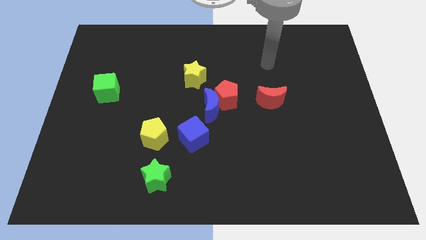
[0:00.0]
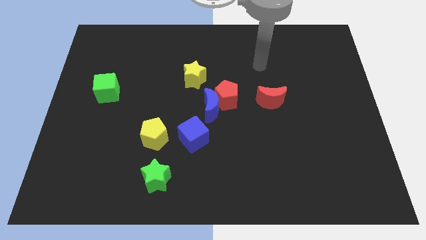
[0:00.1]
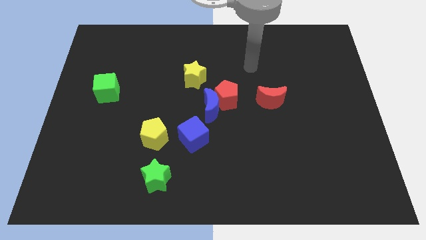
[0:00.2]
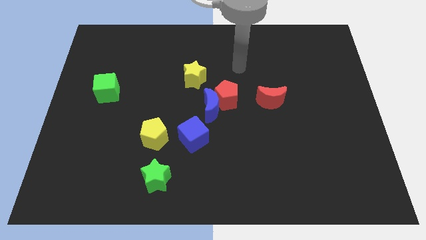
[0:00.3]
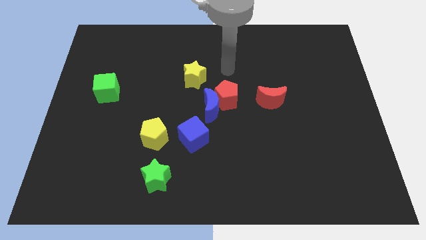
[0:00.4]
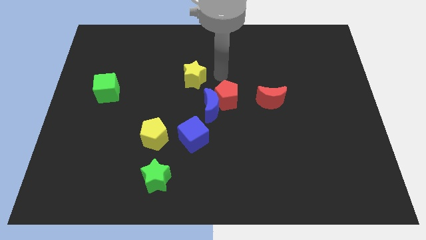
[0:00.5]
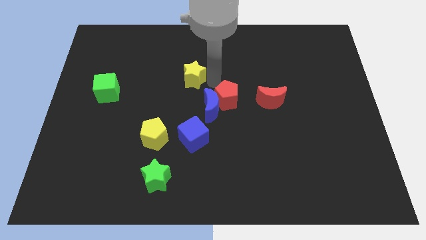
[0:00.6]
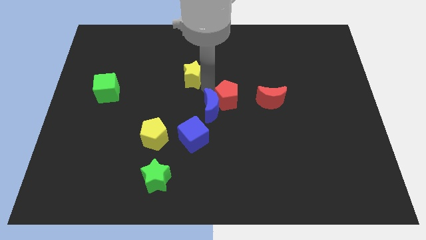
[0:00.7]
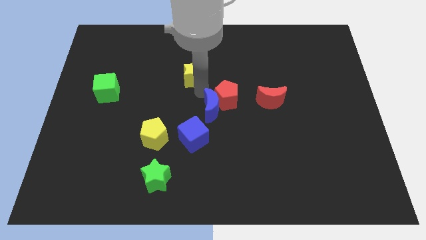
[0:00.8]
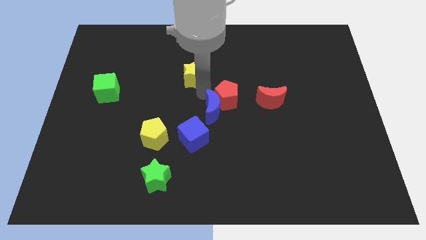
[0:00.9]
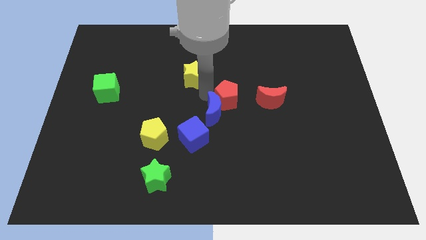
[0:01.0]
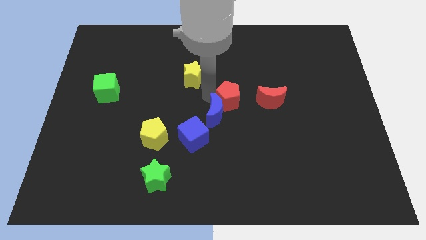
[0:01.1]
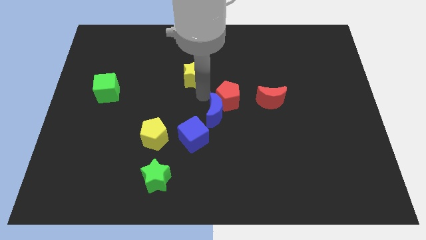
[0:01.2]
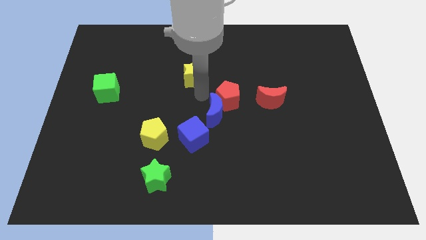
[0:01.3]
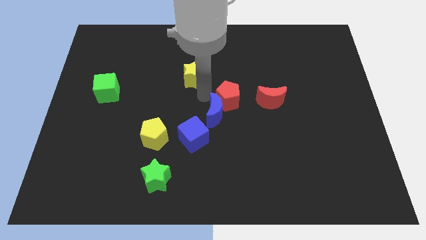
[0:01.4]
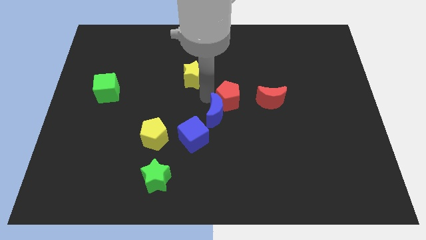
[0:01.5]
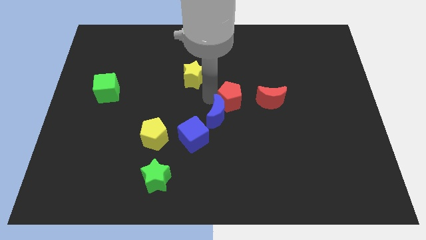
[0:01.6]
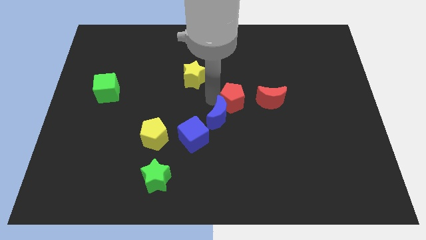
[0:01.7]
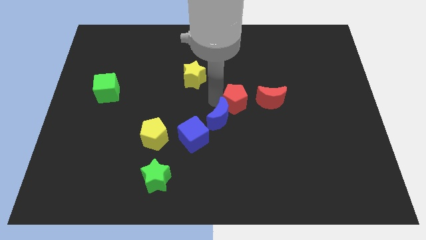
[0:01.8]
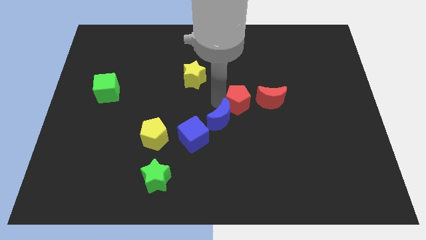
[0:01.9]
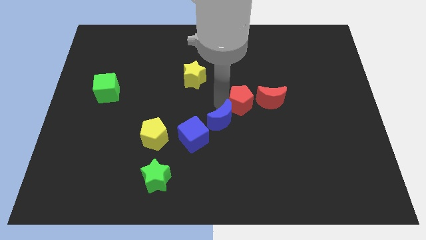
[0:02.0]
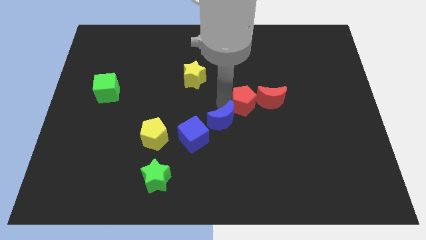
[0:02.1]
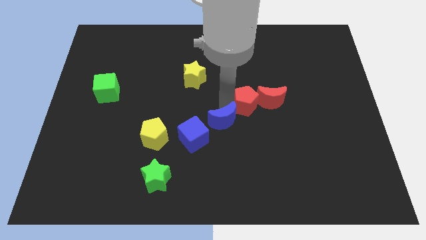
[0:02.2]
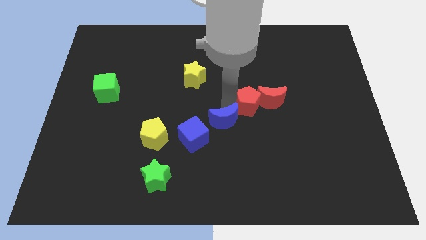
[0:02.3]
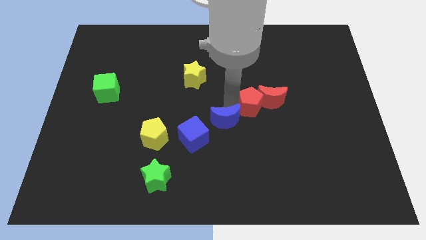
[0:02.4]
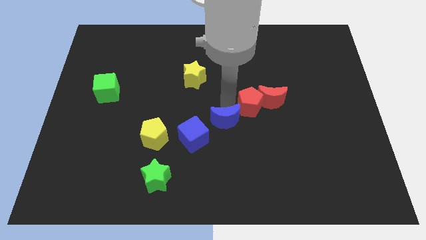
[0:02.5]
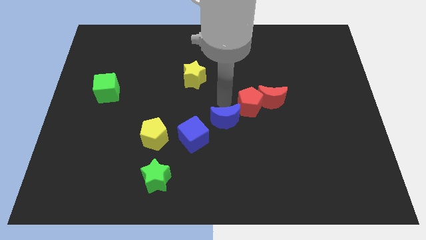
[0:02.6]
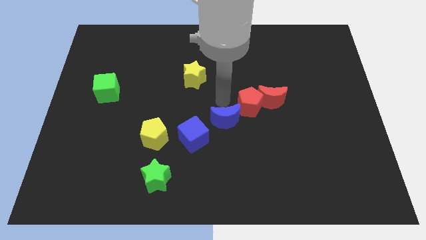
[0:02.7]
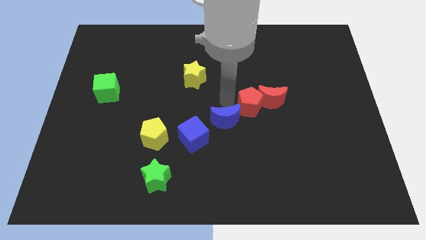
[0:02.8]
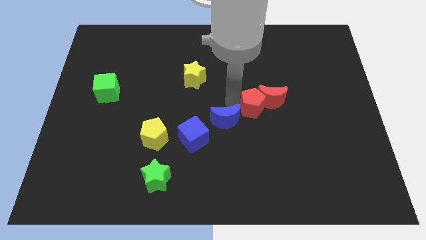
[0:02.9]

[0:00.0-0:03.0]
pull the red pentagon apart from the blue moon and yellow star

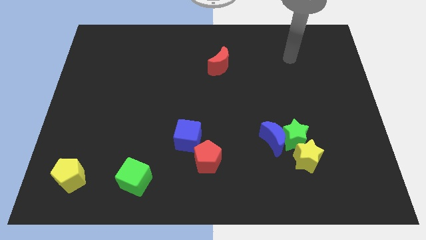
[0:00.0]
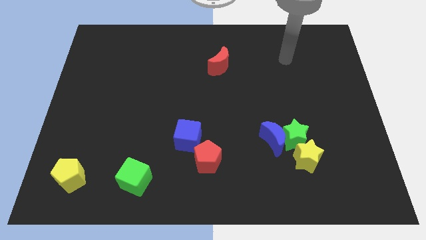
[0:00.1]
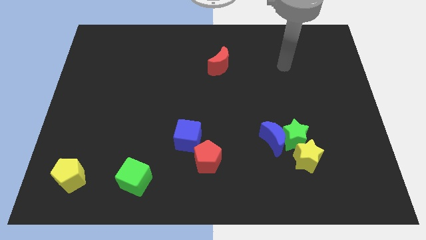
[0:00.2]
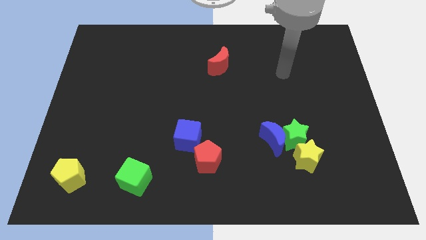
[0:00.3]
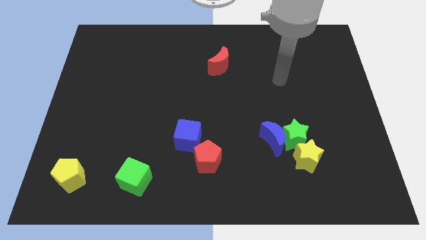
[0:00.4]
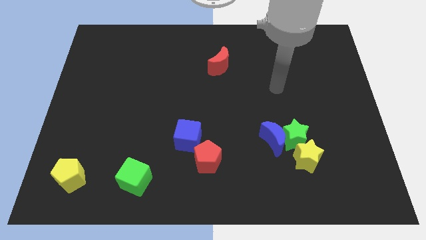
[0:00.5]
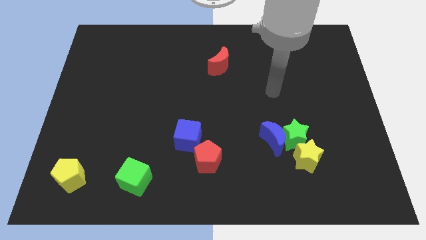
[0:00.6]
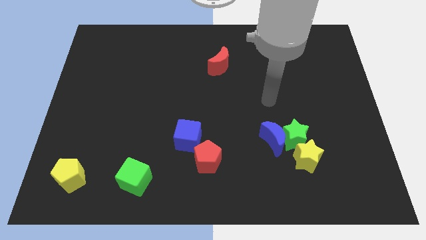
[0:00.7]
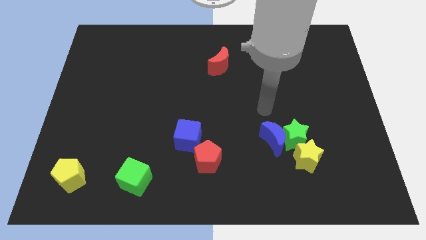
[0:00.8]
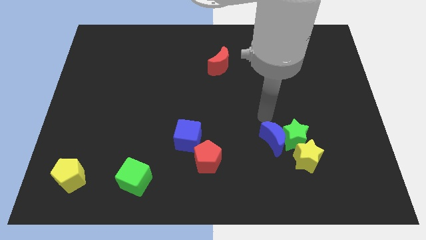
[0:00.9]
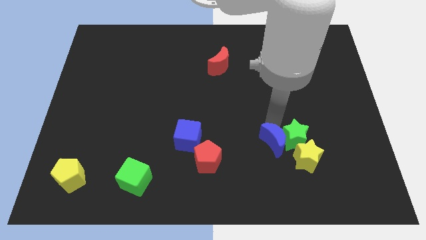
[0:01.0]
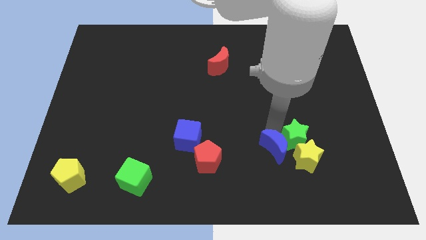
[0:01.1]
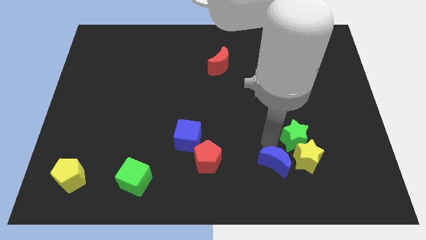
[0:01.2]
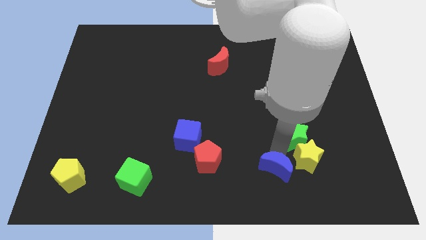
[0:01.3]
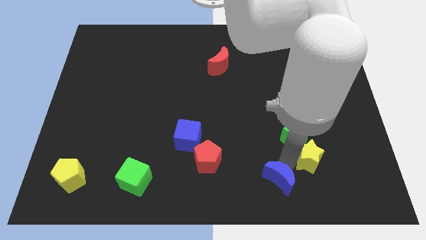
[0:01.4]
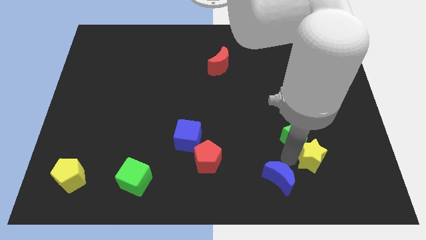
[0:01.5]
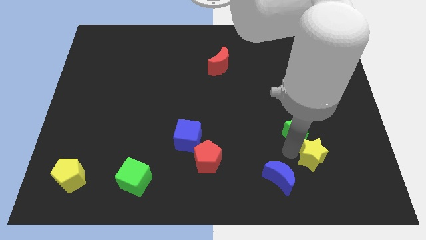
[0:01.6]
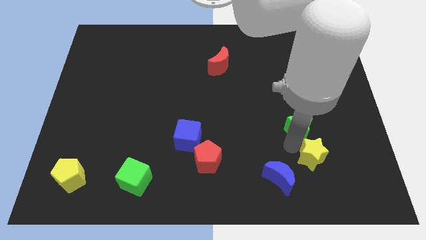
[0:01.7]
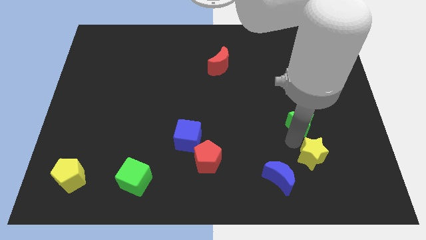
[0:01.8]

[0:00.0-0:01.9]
move the green star away from the blue moon and yellow star

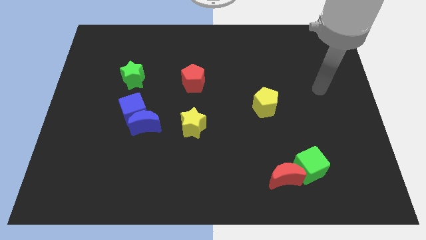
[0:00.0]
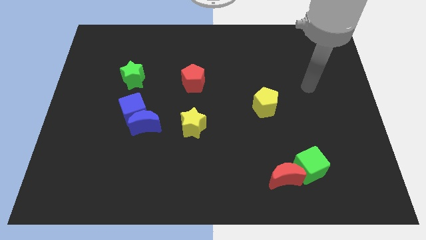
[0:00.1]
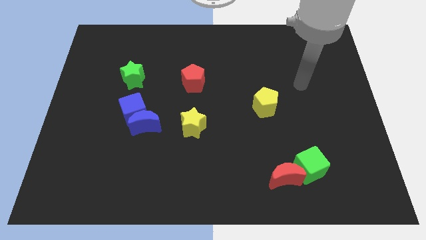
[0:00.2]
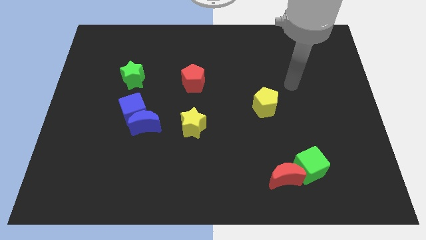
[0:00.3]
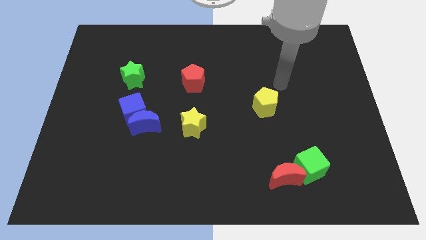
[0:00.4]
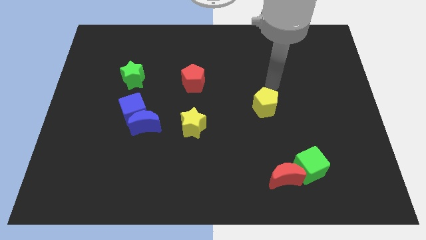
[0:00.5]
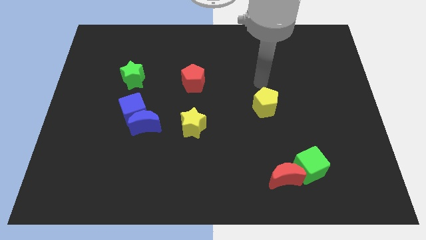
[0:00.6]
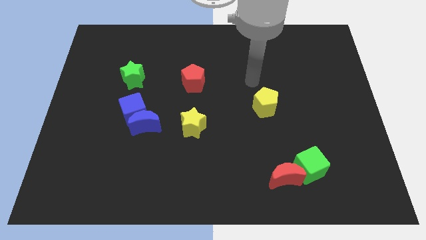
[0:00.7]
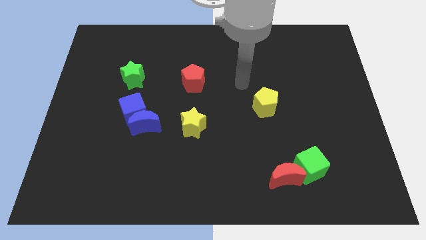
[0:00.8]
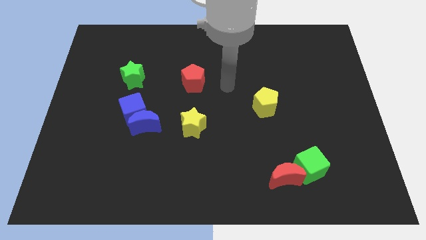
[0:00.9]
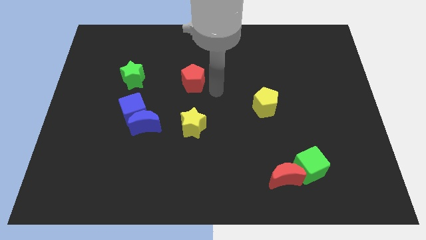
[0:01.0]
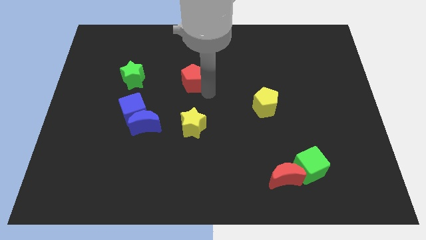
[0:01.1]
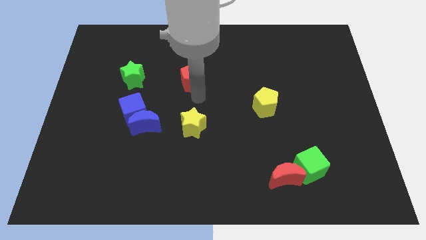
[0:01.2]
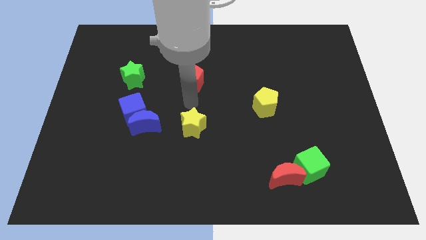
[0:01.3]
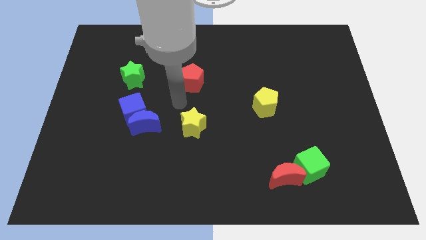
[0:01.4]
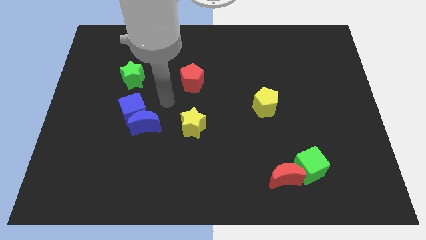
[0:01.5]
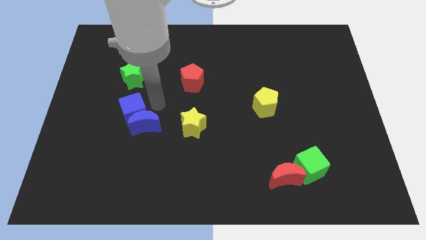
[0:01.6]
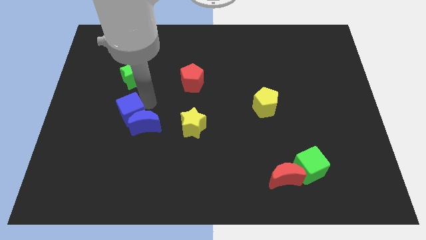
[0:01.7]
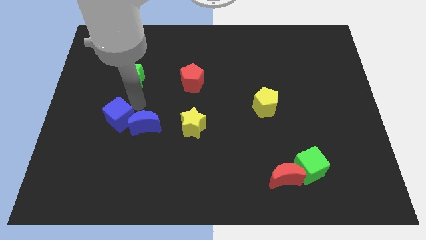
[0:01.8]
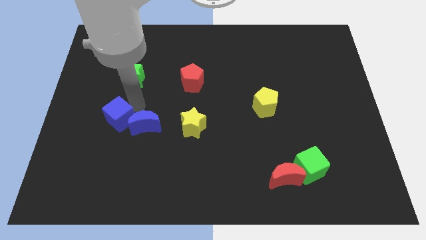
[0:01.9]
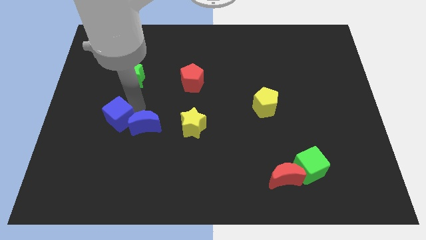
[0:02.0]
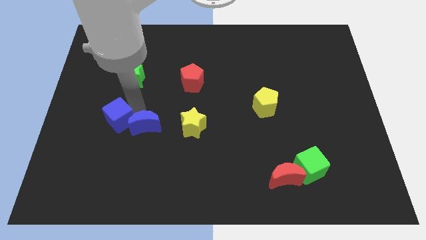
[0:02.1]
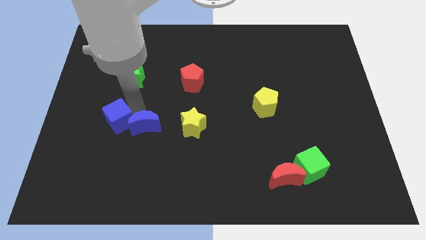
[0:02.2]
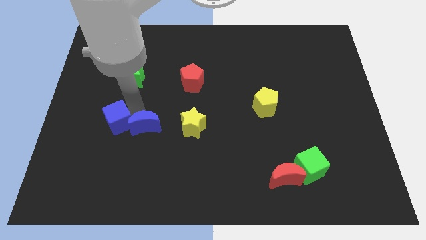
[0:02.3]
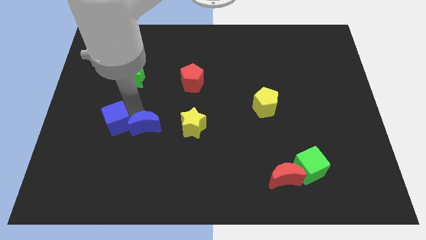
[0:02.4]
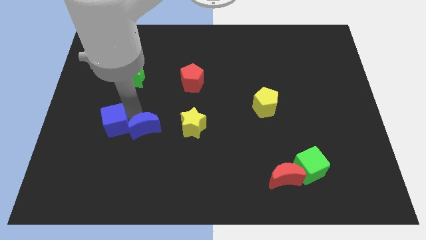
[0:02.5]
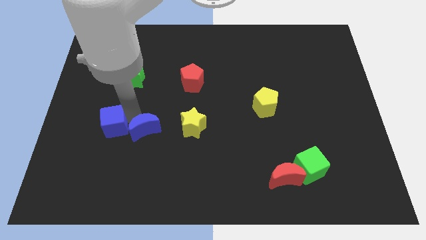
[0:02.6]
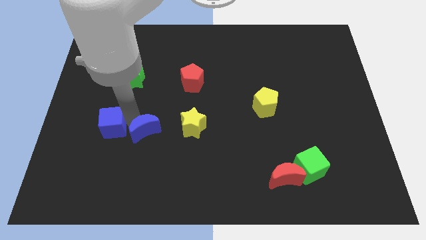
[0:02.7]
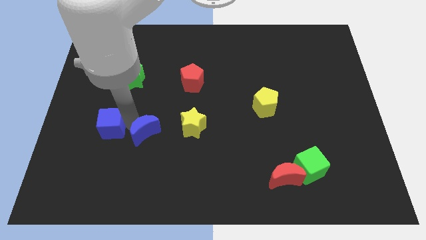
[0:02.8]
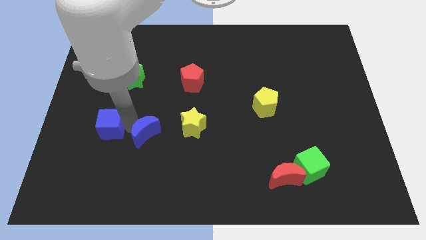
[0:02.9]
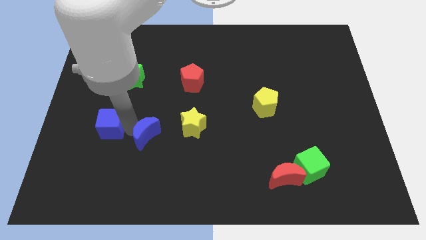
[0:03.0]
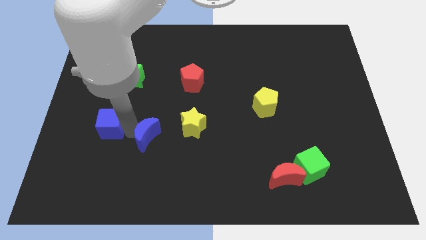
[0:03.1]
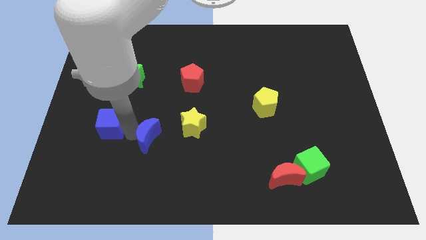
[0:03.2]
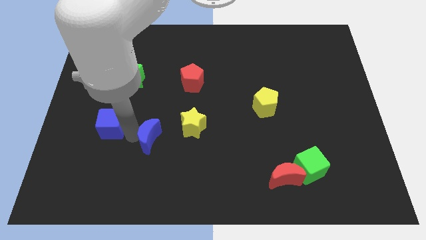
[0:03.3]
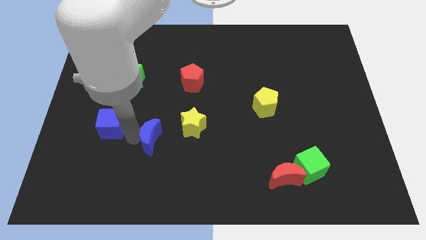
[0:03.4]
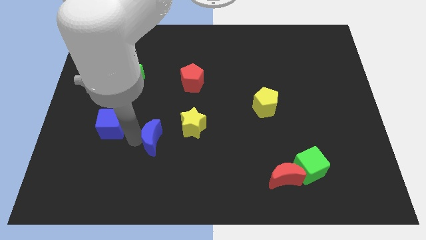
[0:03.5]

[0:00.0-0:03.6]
pull the blue moon apart from the blue cube

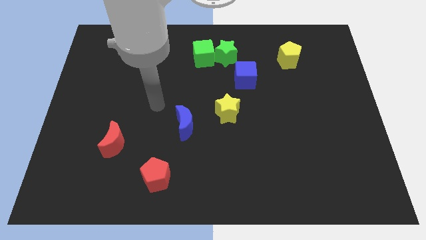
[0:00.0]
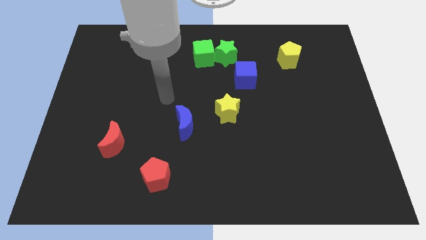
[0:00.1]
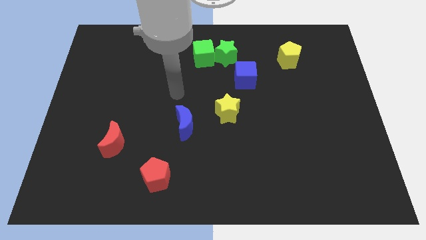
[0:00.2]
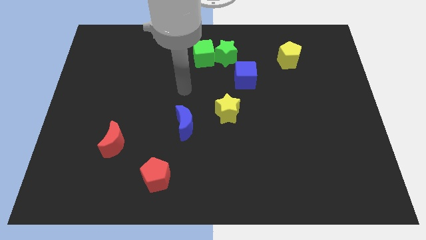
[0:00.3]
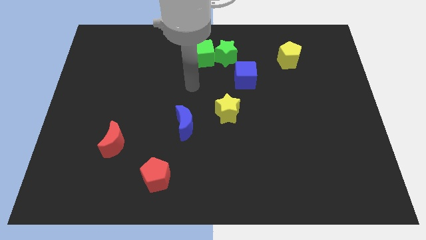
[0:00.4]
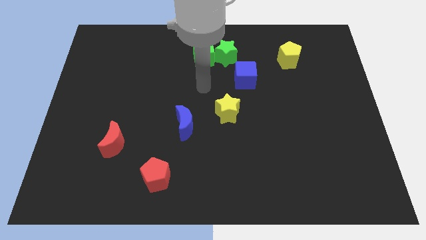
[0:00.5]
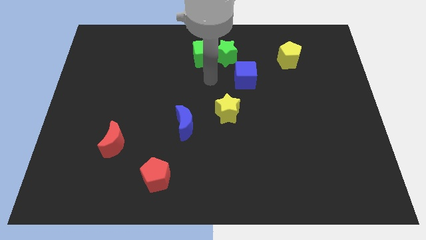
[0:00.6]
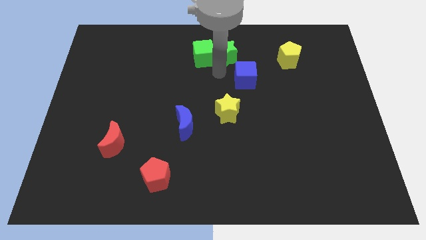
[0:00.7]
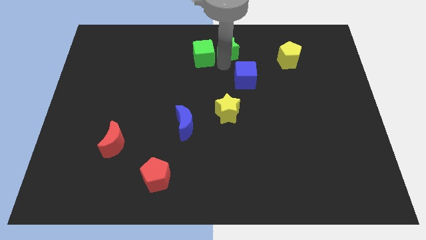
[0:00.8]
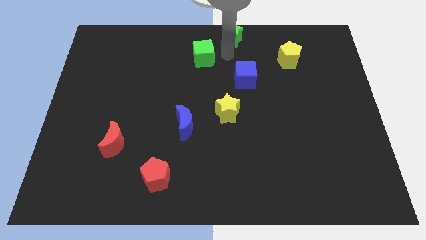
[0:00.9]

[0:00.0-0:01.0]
move the green cube away from the green star
